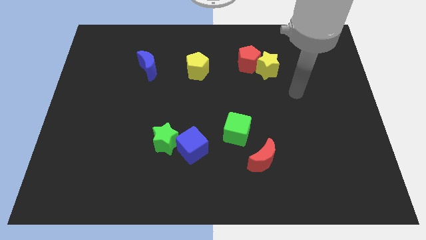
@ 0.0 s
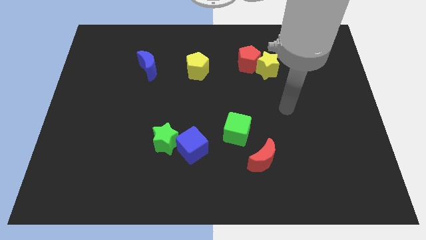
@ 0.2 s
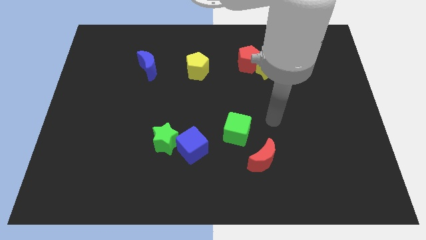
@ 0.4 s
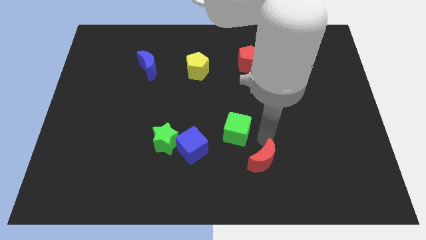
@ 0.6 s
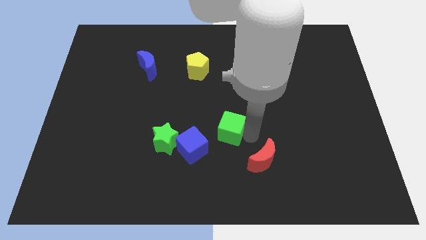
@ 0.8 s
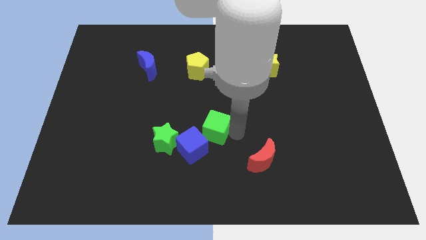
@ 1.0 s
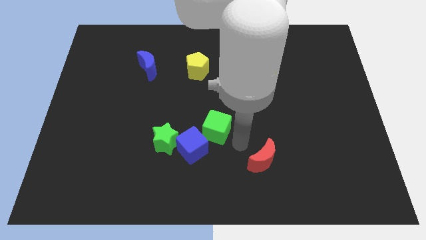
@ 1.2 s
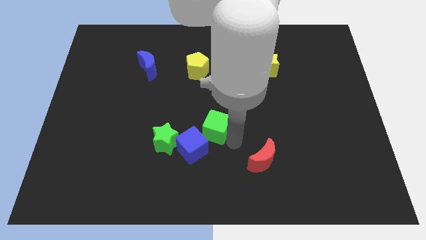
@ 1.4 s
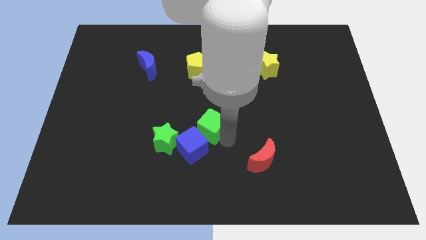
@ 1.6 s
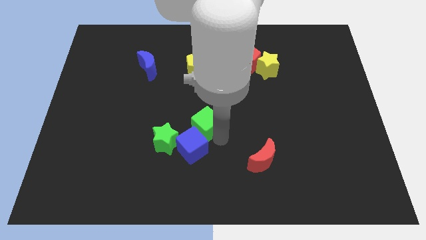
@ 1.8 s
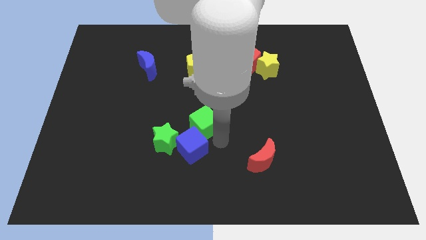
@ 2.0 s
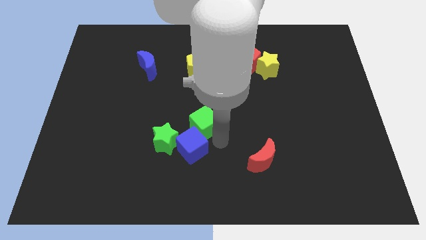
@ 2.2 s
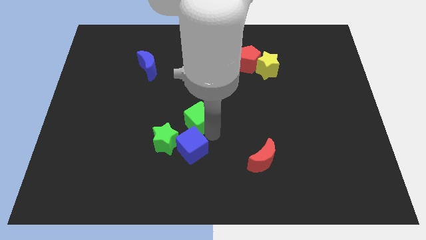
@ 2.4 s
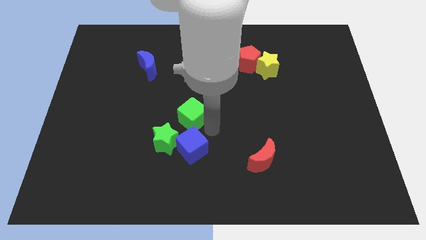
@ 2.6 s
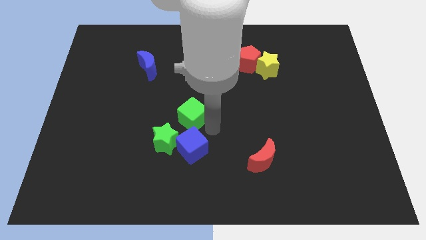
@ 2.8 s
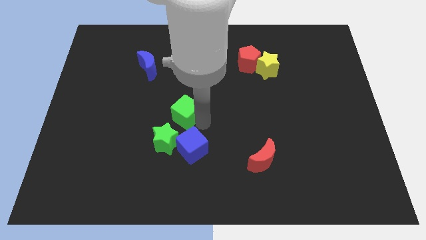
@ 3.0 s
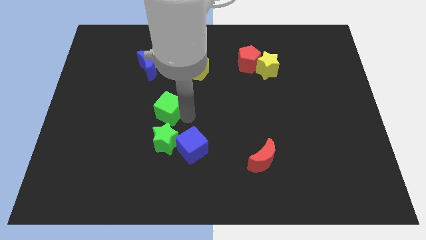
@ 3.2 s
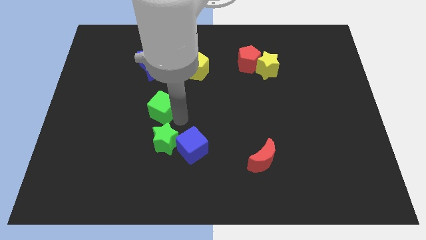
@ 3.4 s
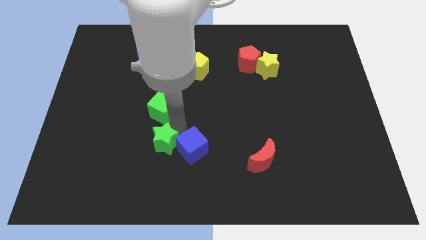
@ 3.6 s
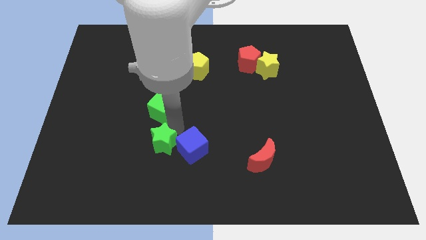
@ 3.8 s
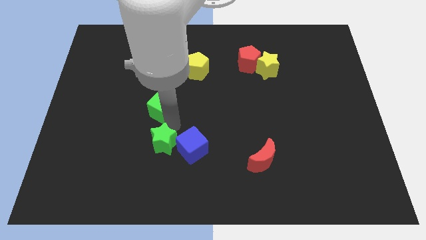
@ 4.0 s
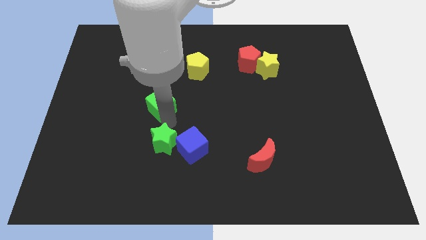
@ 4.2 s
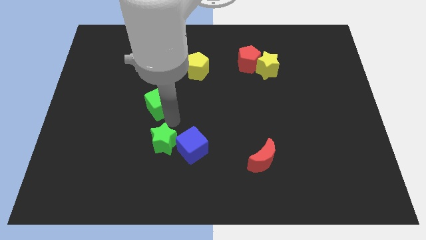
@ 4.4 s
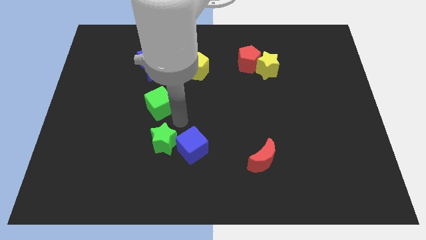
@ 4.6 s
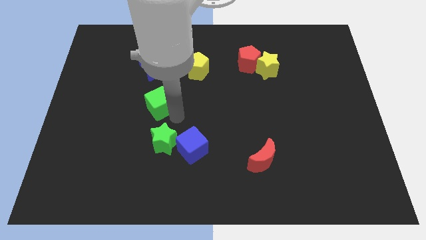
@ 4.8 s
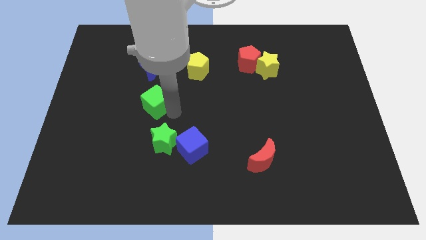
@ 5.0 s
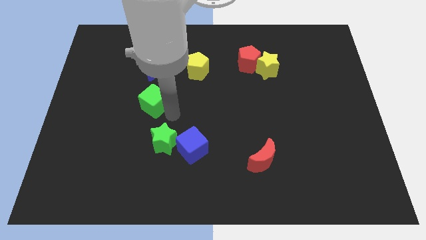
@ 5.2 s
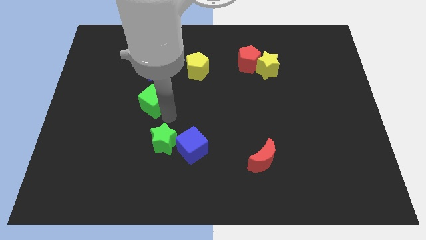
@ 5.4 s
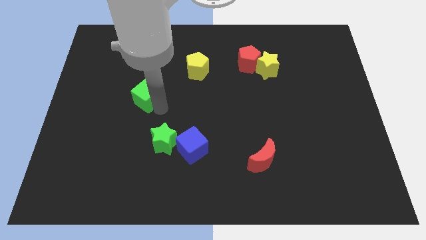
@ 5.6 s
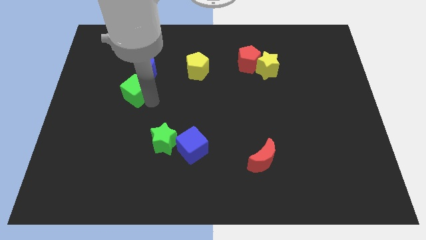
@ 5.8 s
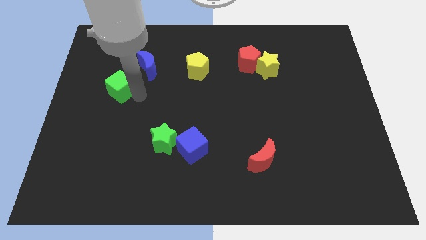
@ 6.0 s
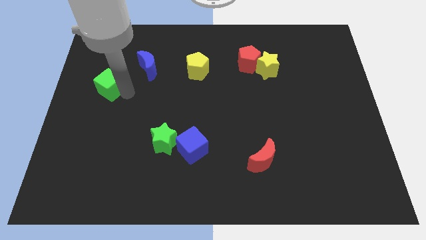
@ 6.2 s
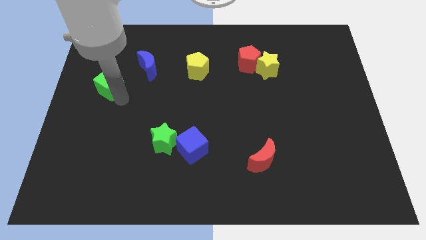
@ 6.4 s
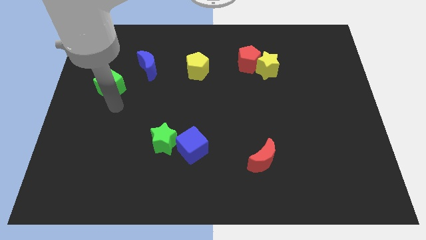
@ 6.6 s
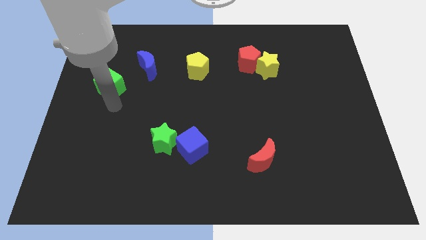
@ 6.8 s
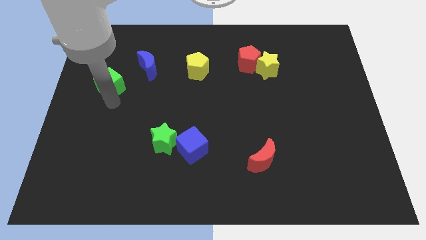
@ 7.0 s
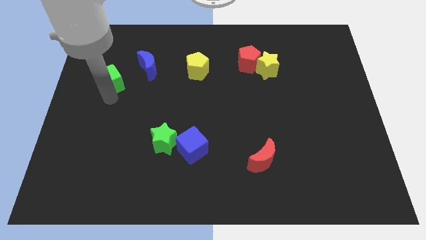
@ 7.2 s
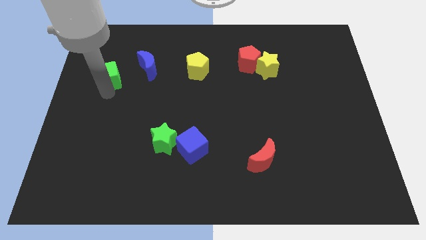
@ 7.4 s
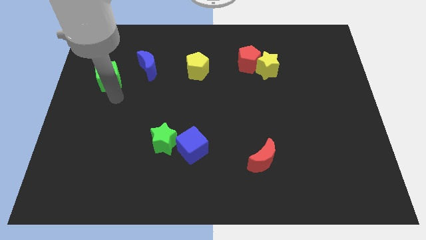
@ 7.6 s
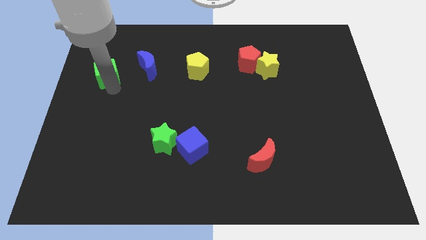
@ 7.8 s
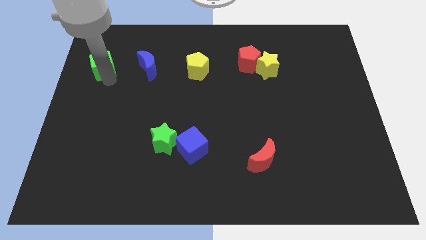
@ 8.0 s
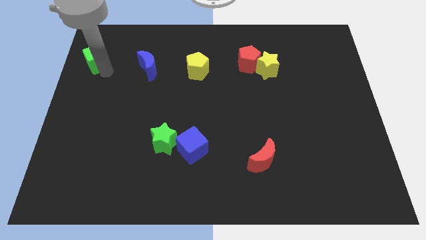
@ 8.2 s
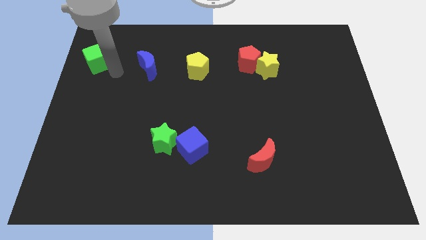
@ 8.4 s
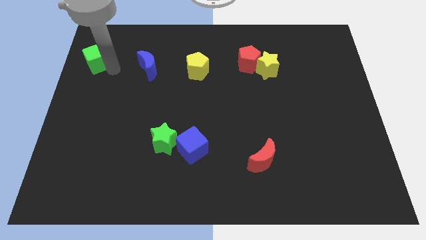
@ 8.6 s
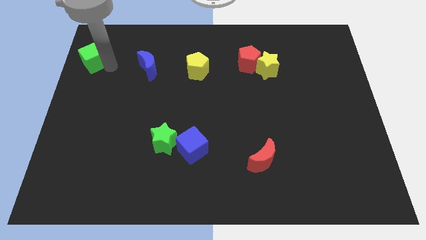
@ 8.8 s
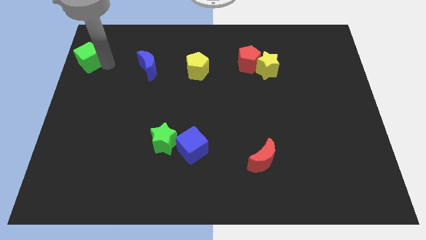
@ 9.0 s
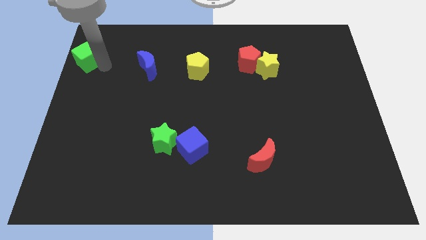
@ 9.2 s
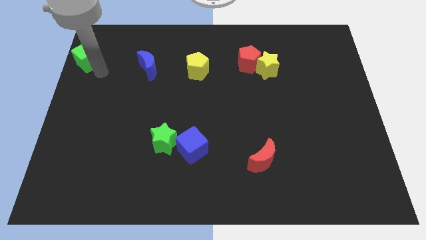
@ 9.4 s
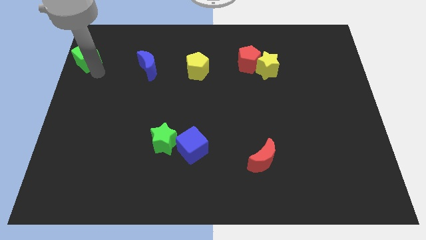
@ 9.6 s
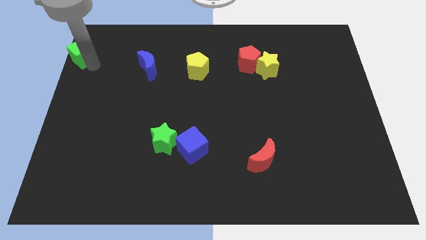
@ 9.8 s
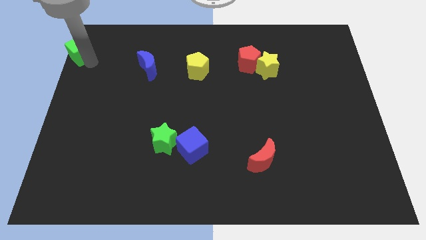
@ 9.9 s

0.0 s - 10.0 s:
put the green cube to the top left

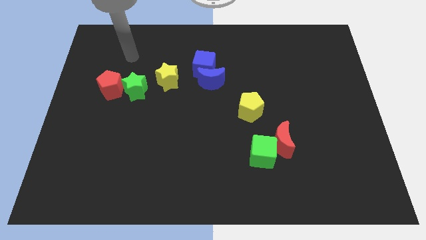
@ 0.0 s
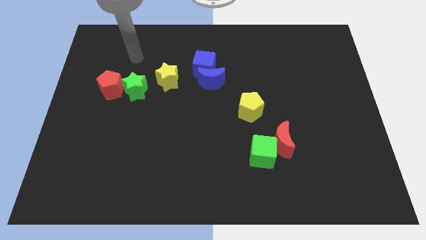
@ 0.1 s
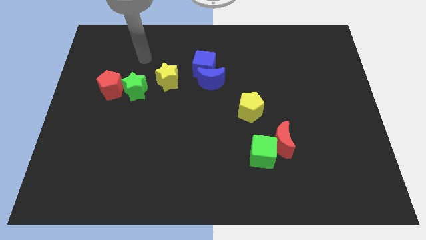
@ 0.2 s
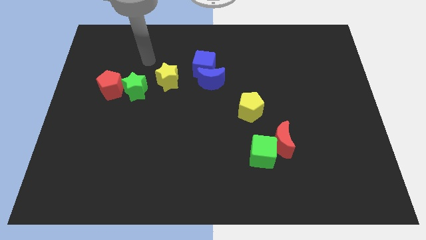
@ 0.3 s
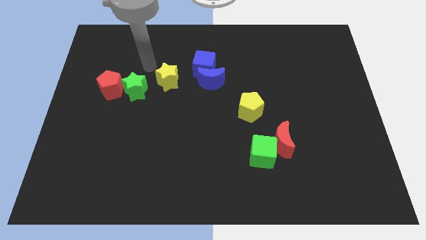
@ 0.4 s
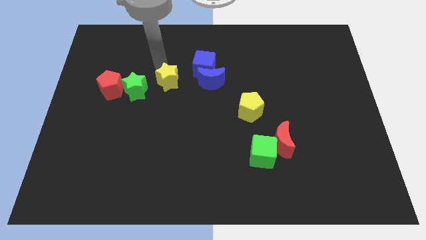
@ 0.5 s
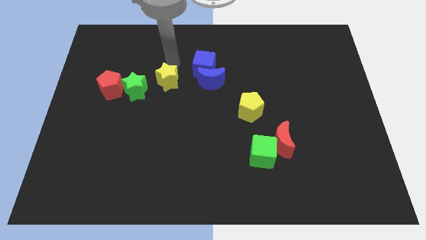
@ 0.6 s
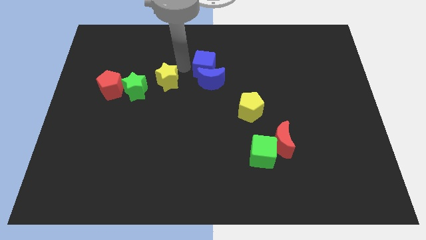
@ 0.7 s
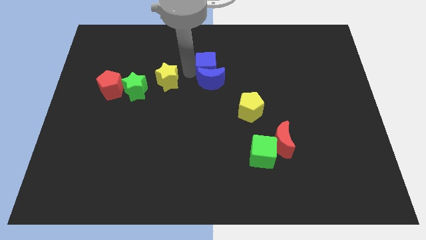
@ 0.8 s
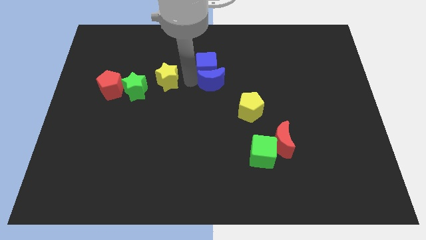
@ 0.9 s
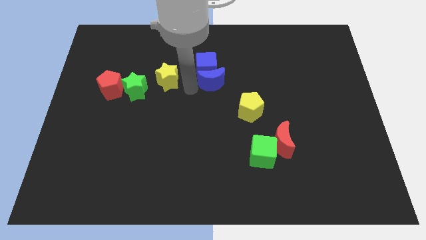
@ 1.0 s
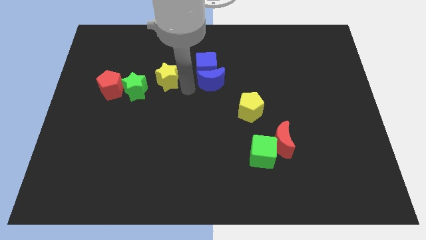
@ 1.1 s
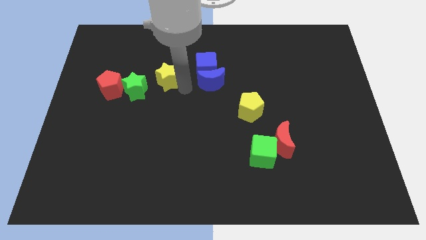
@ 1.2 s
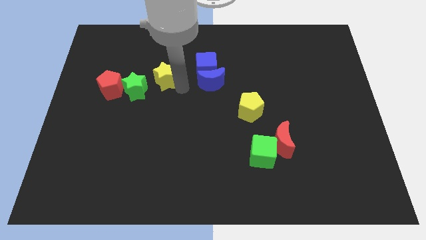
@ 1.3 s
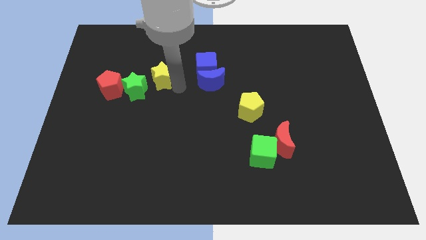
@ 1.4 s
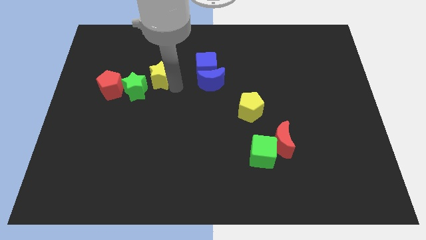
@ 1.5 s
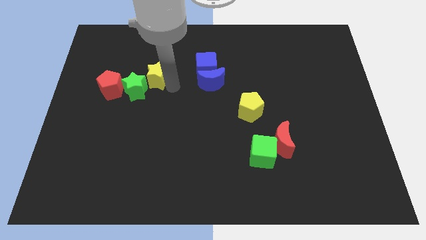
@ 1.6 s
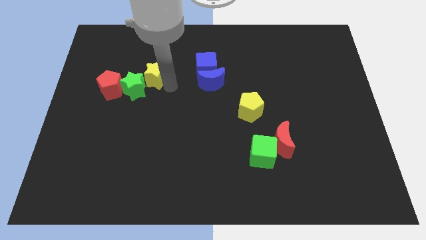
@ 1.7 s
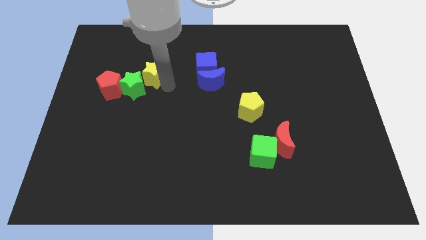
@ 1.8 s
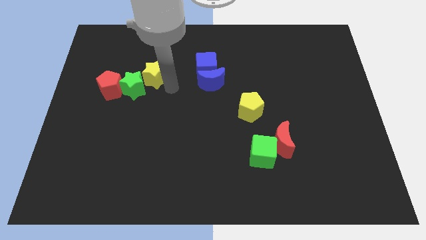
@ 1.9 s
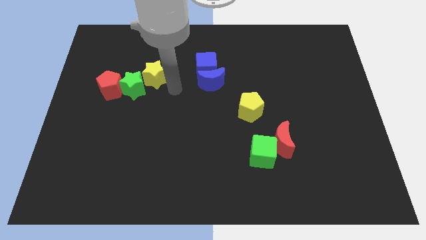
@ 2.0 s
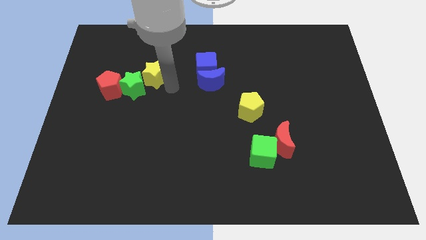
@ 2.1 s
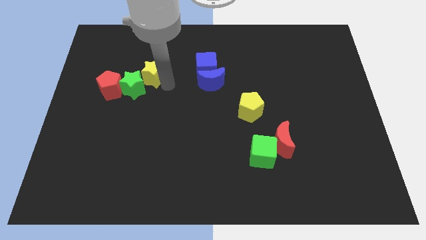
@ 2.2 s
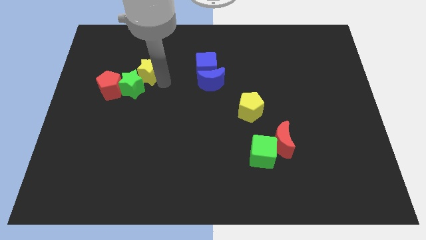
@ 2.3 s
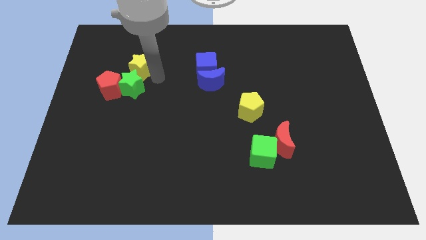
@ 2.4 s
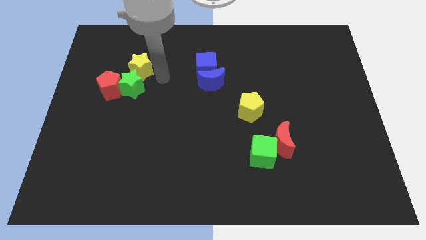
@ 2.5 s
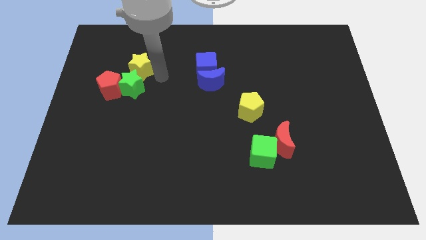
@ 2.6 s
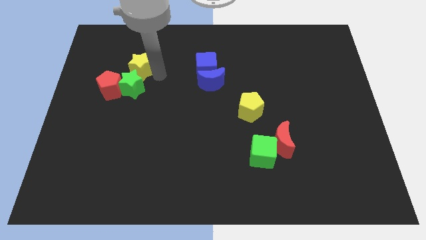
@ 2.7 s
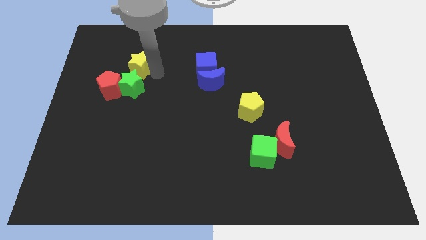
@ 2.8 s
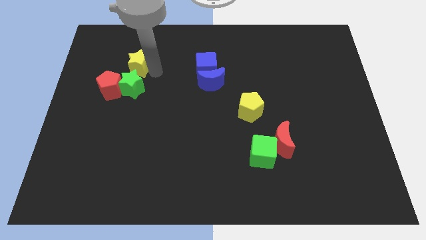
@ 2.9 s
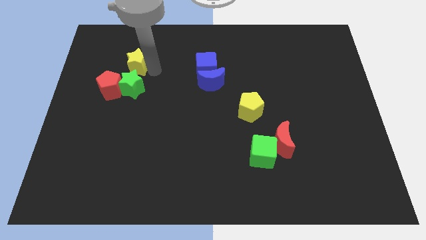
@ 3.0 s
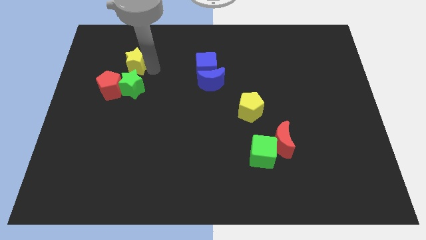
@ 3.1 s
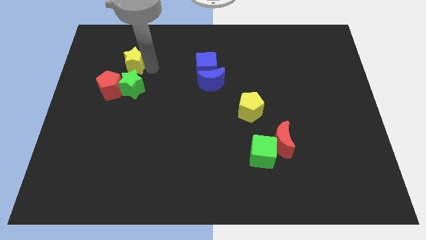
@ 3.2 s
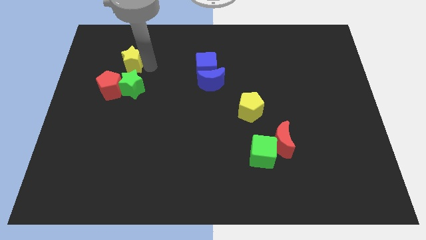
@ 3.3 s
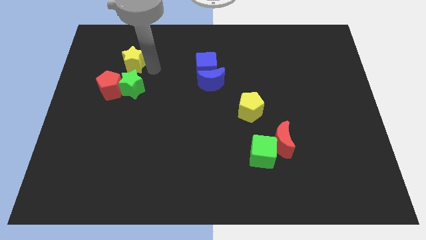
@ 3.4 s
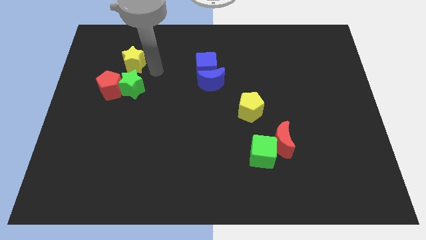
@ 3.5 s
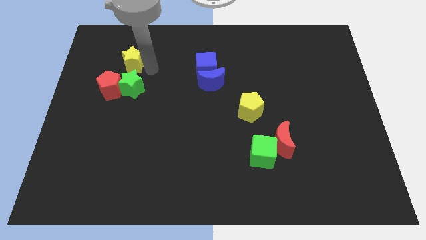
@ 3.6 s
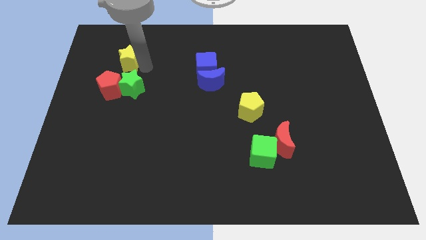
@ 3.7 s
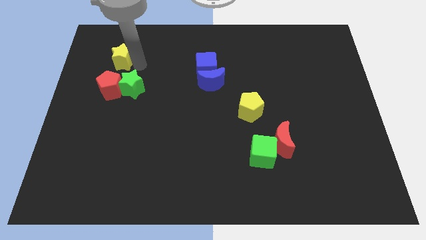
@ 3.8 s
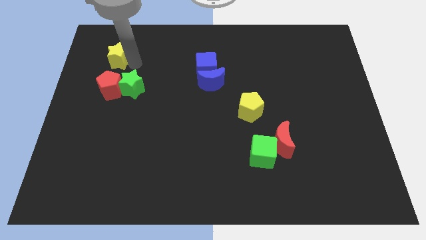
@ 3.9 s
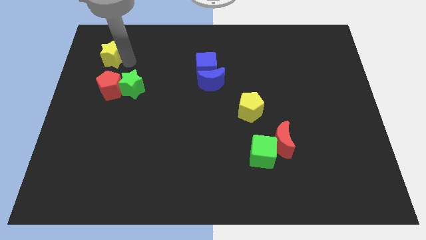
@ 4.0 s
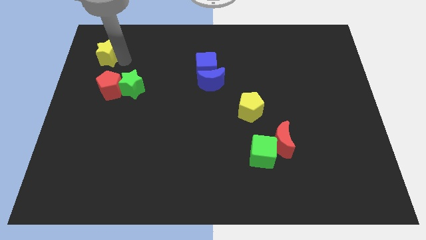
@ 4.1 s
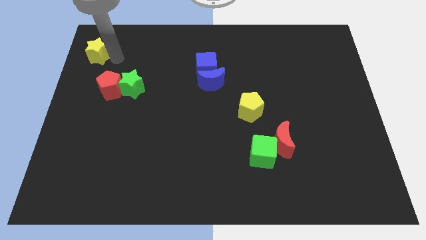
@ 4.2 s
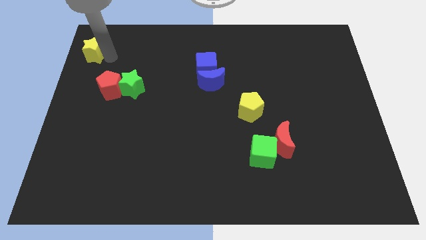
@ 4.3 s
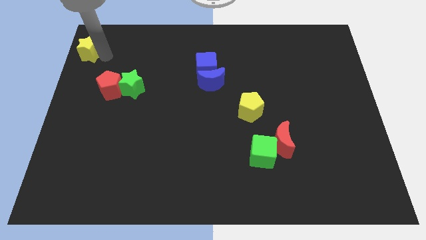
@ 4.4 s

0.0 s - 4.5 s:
put the yellow star to the top left of the board
